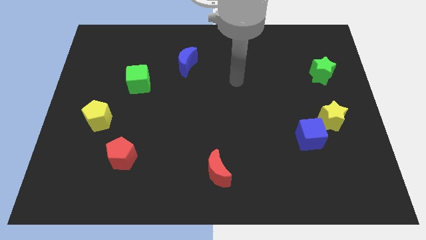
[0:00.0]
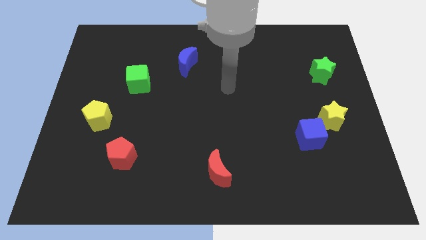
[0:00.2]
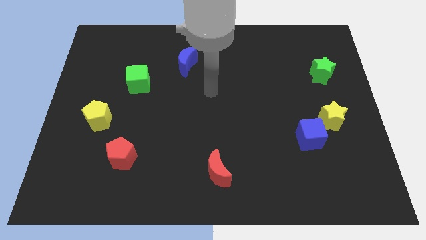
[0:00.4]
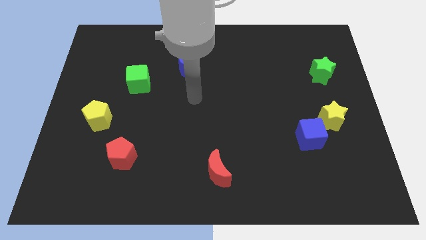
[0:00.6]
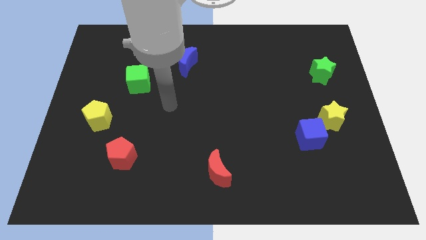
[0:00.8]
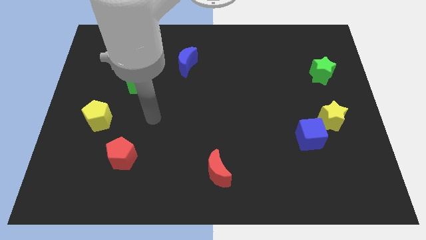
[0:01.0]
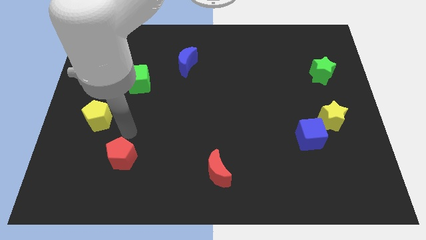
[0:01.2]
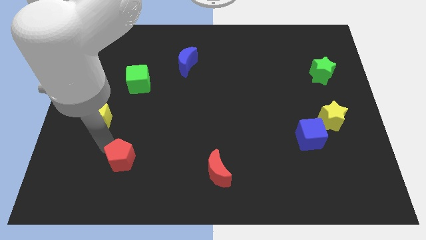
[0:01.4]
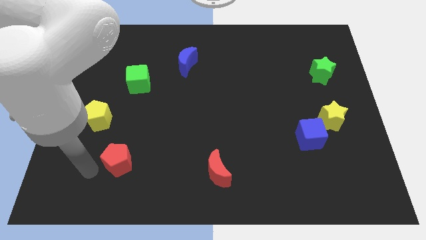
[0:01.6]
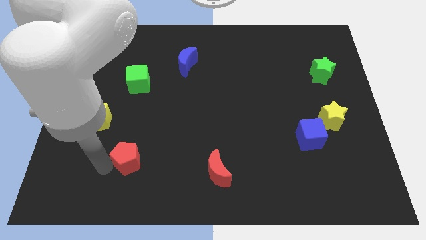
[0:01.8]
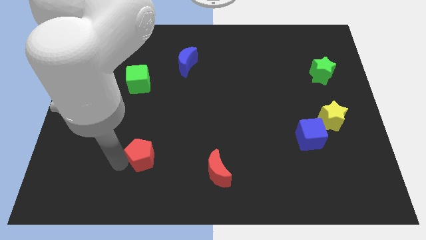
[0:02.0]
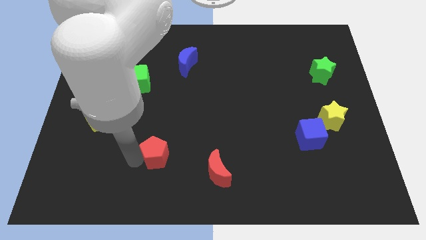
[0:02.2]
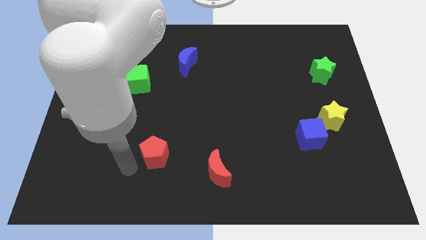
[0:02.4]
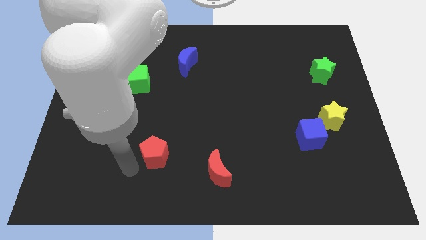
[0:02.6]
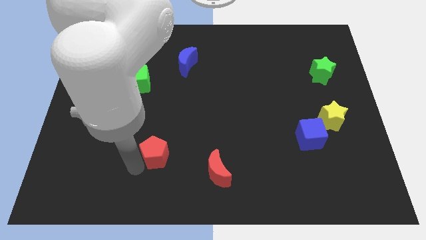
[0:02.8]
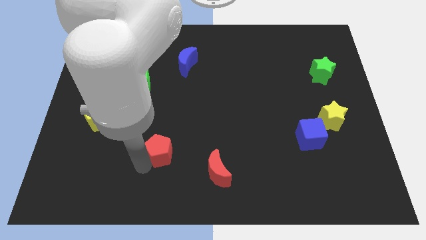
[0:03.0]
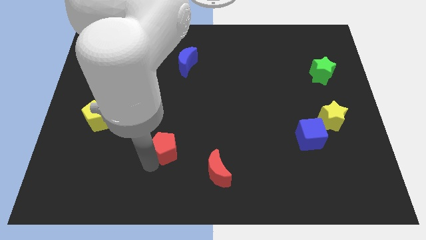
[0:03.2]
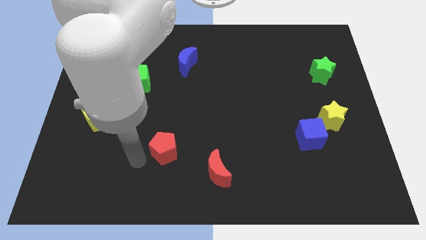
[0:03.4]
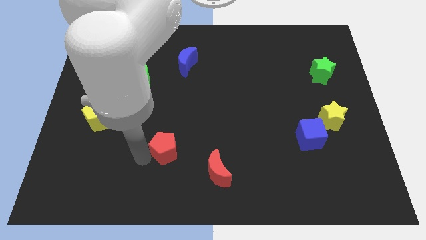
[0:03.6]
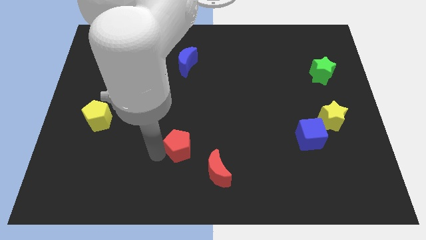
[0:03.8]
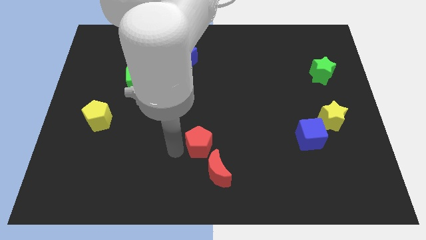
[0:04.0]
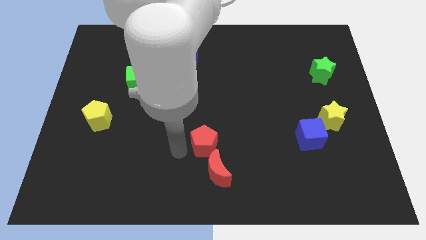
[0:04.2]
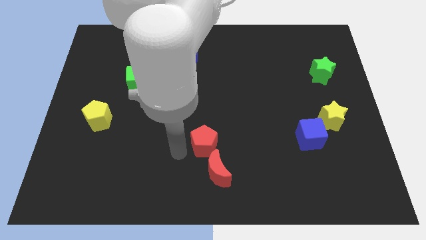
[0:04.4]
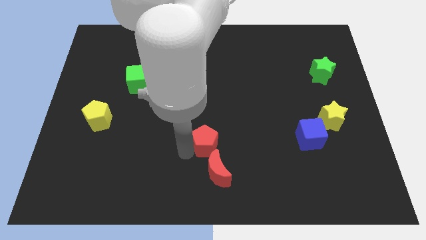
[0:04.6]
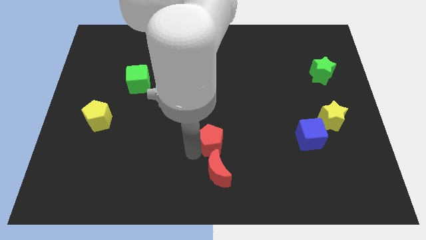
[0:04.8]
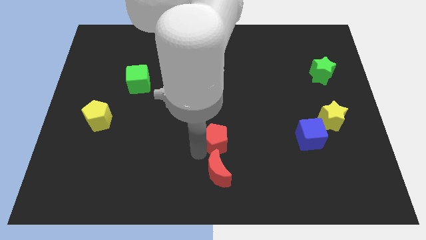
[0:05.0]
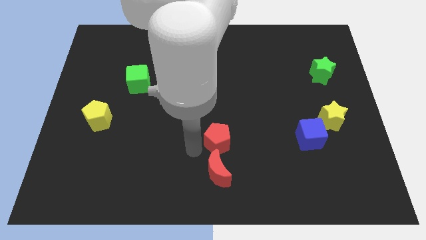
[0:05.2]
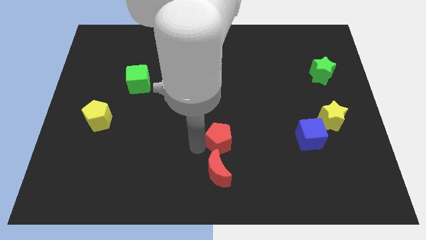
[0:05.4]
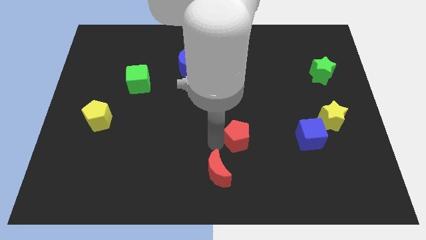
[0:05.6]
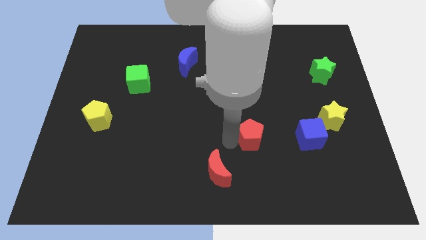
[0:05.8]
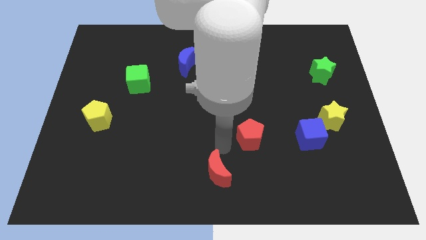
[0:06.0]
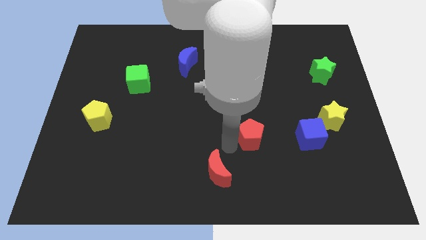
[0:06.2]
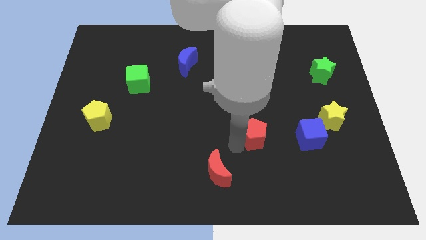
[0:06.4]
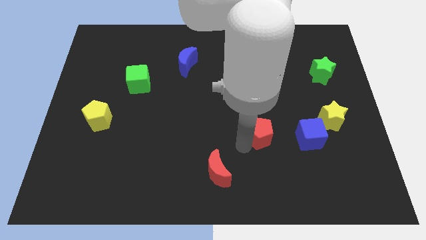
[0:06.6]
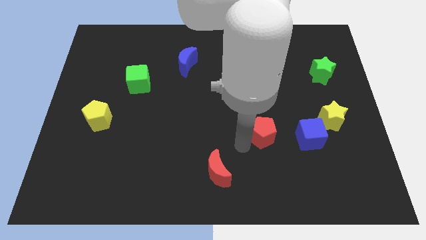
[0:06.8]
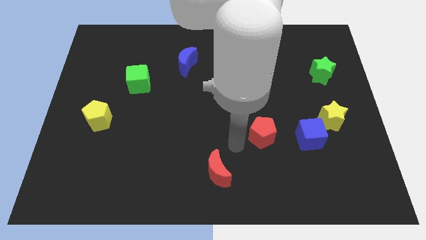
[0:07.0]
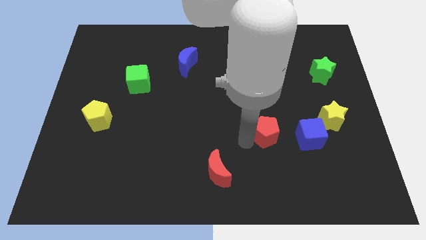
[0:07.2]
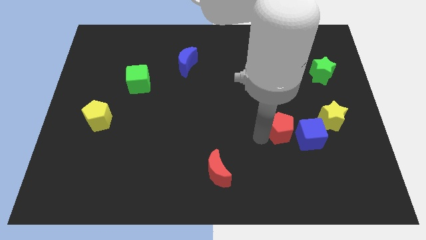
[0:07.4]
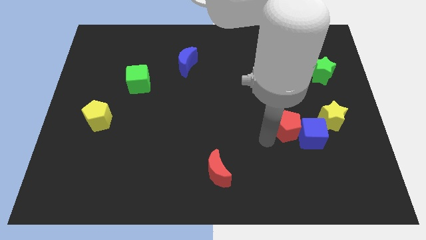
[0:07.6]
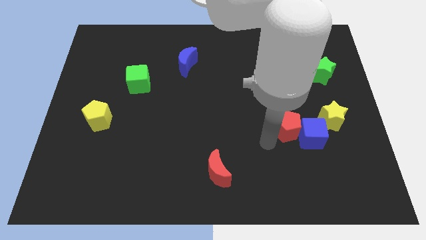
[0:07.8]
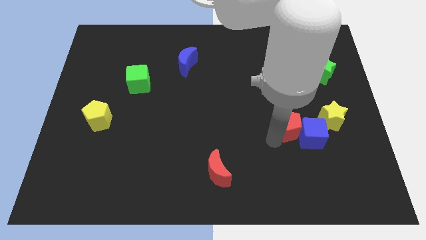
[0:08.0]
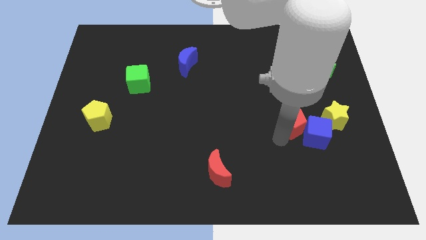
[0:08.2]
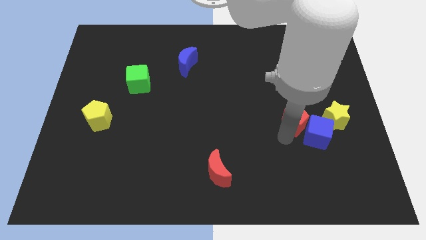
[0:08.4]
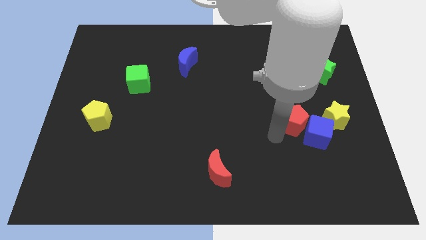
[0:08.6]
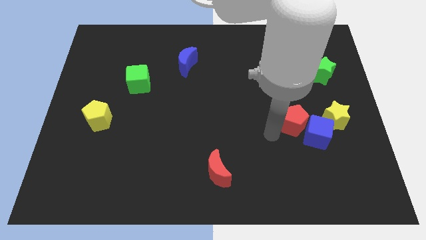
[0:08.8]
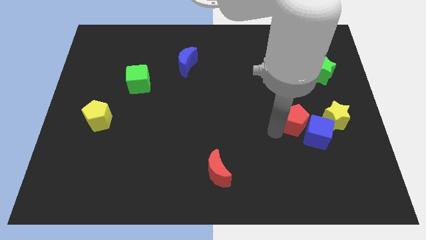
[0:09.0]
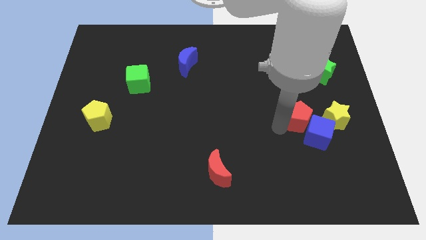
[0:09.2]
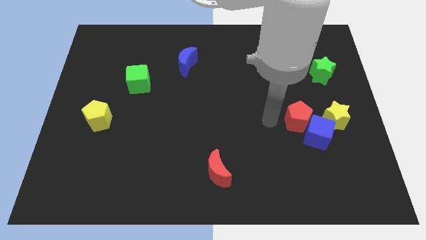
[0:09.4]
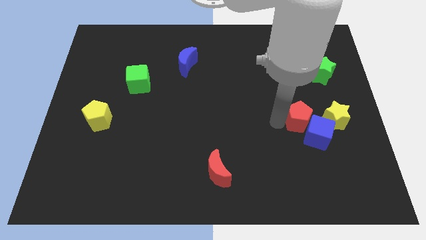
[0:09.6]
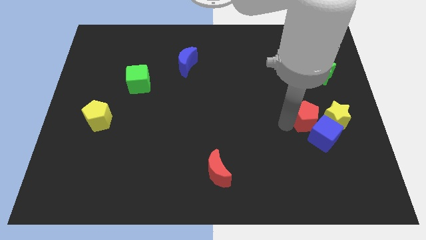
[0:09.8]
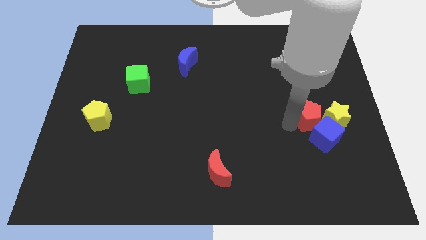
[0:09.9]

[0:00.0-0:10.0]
push the red pentagon to the yellow star

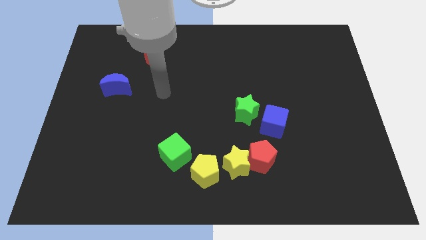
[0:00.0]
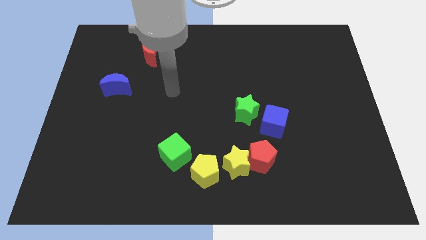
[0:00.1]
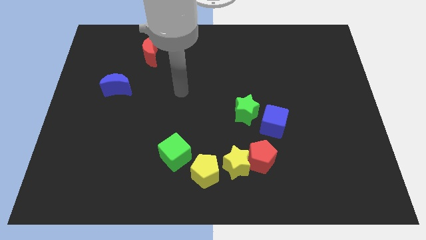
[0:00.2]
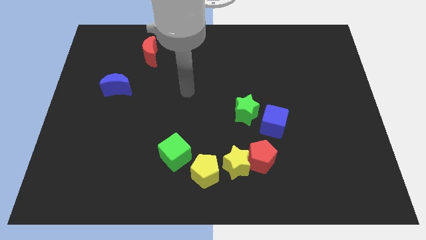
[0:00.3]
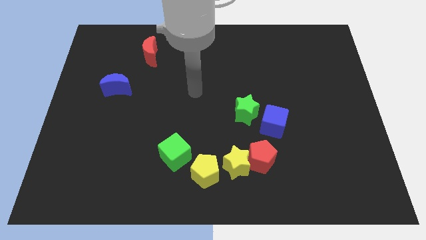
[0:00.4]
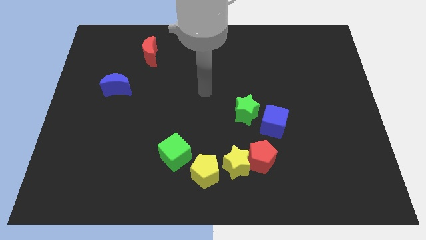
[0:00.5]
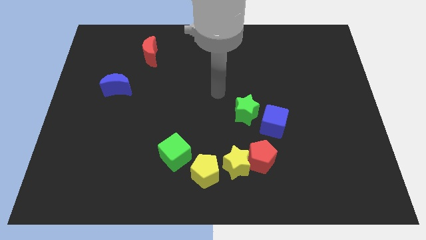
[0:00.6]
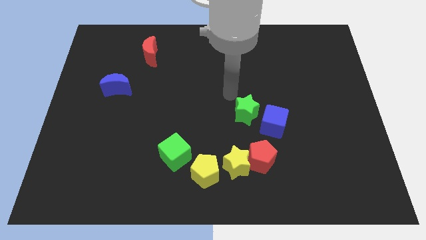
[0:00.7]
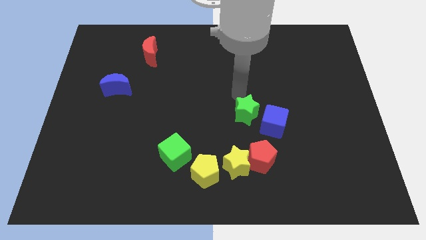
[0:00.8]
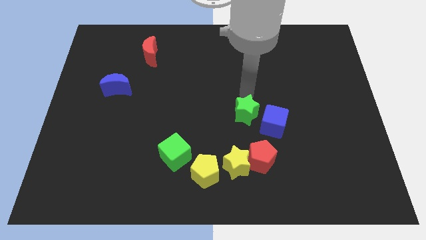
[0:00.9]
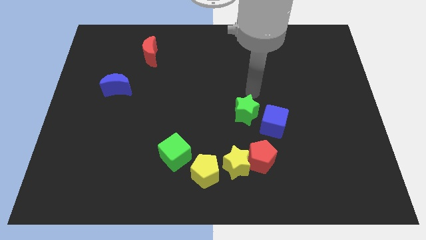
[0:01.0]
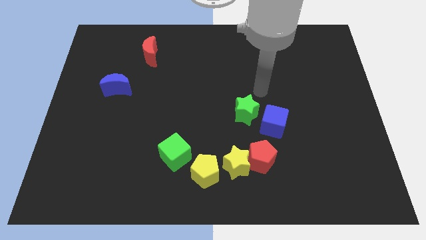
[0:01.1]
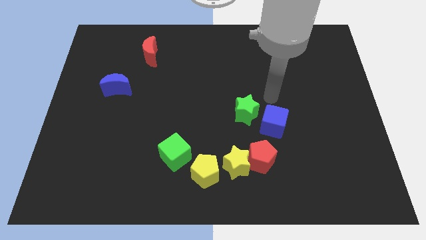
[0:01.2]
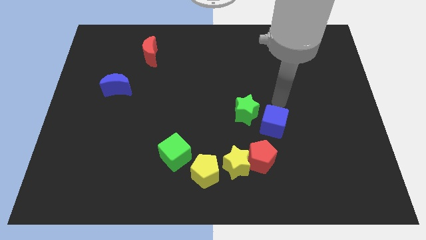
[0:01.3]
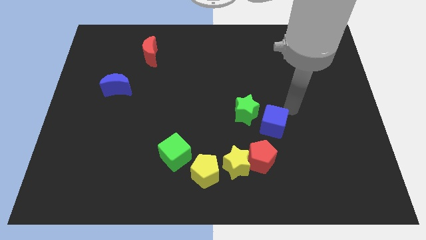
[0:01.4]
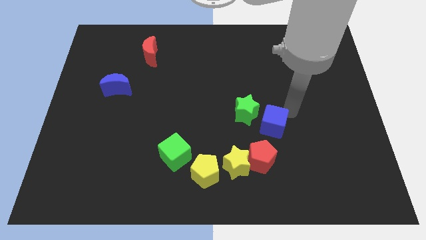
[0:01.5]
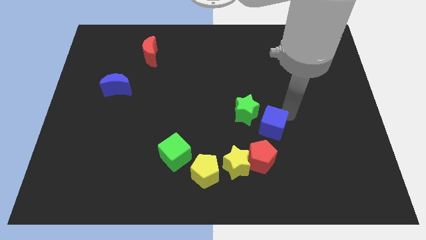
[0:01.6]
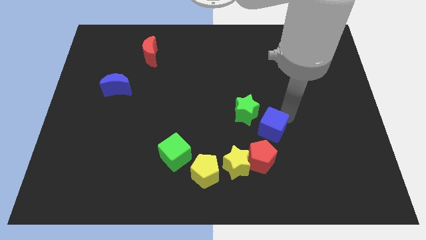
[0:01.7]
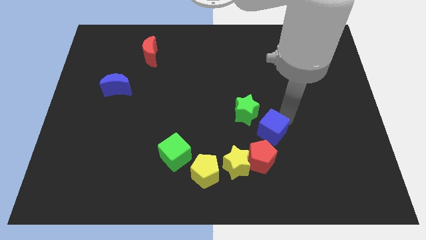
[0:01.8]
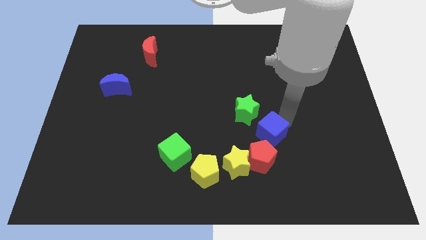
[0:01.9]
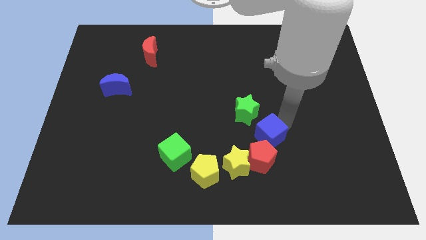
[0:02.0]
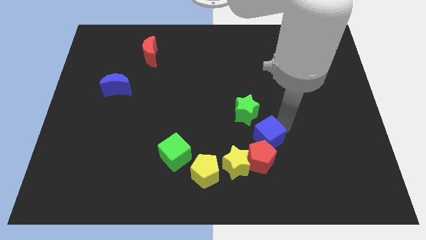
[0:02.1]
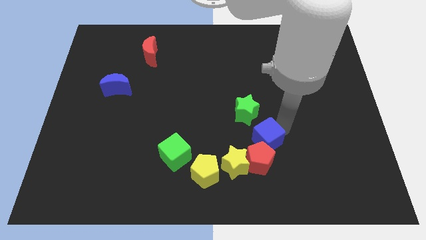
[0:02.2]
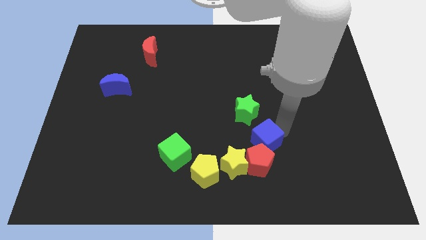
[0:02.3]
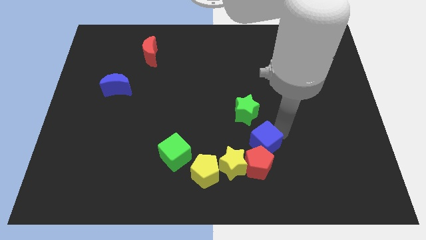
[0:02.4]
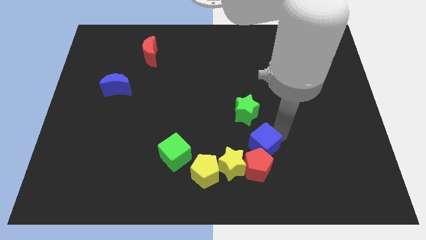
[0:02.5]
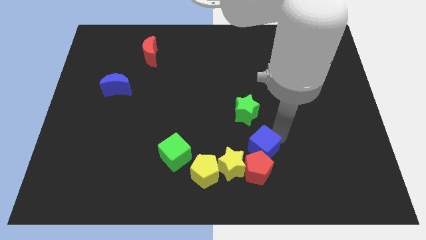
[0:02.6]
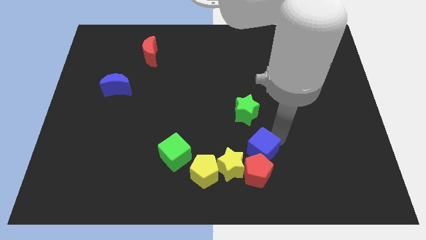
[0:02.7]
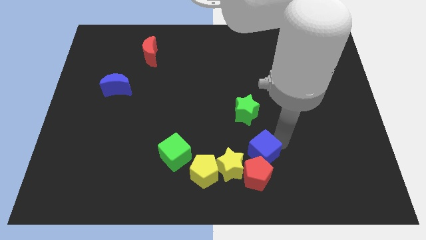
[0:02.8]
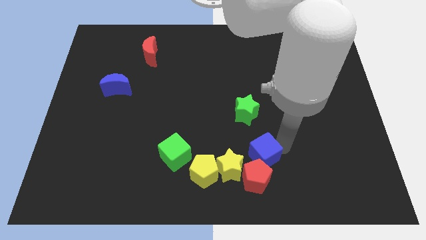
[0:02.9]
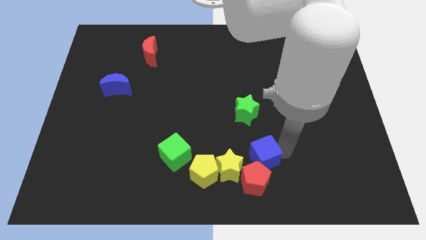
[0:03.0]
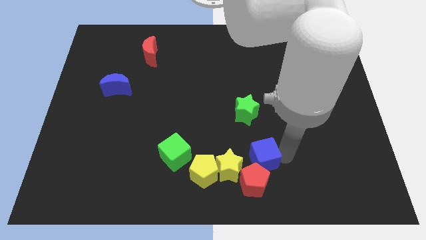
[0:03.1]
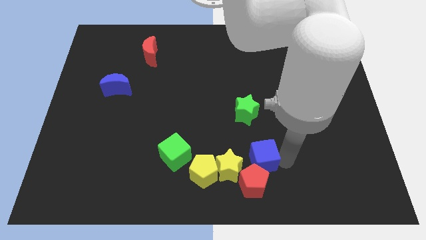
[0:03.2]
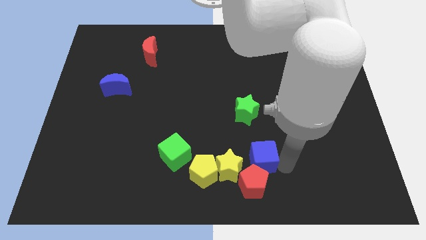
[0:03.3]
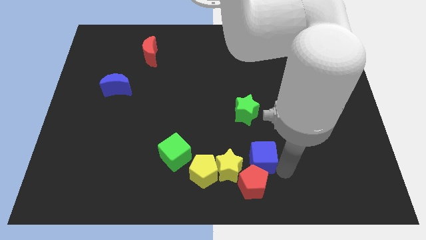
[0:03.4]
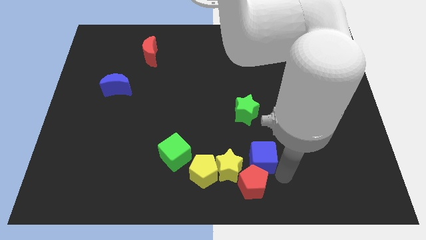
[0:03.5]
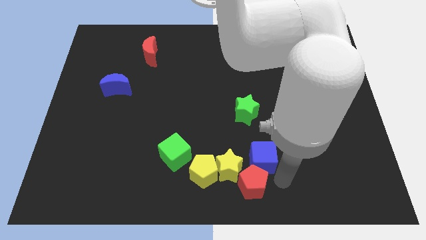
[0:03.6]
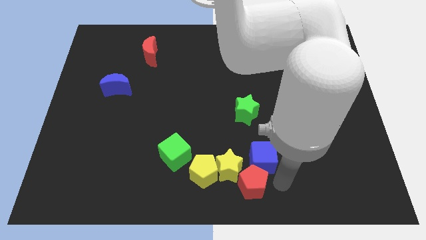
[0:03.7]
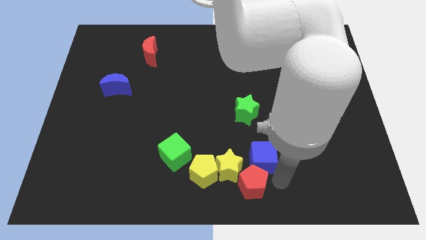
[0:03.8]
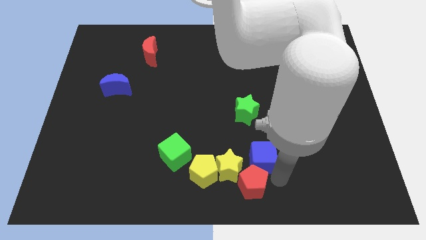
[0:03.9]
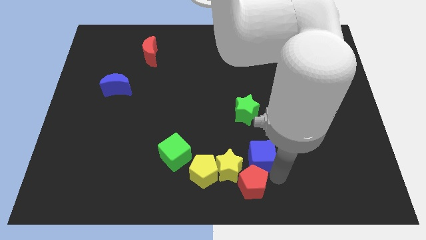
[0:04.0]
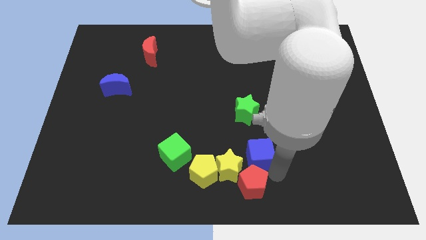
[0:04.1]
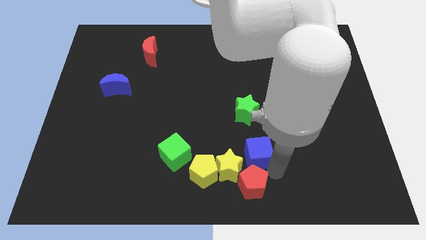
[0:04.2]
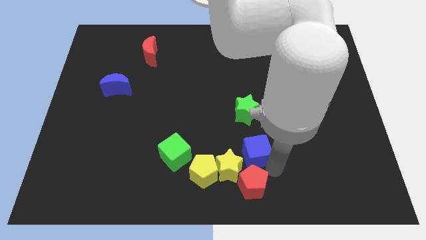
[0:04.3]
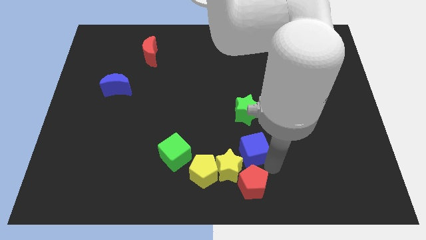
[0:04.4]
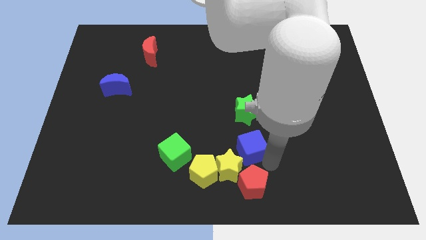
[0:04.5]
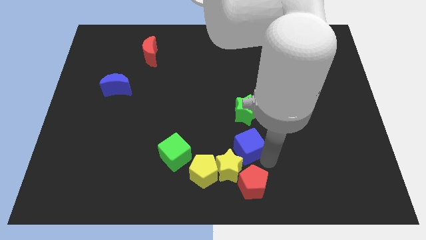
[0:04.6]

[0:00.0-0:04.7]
slide the blue cube close to the yellow star
